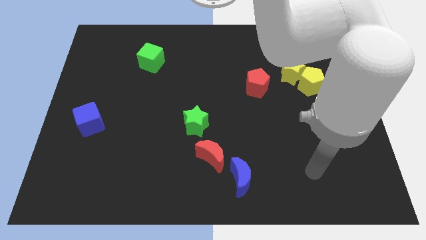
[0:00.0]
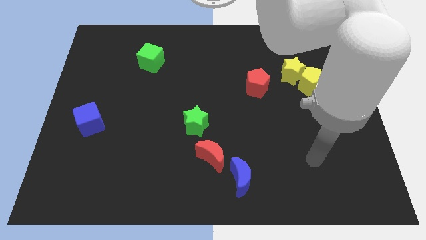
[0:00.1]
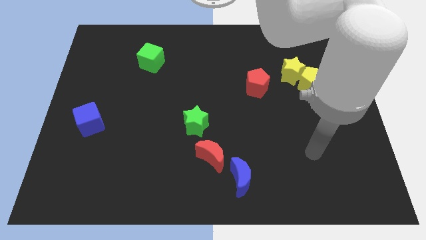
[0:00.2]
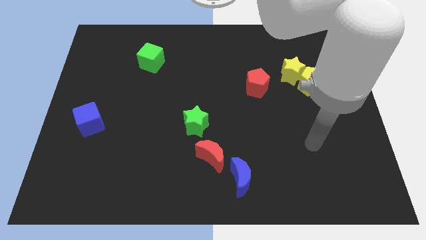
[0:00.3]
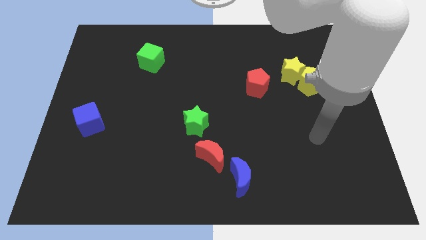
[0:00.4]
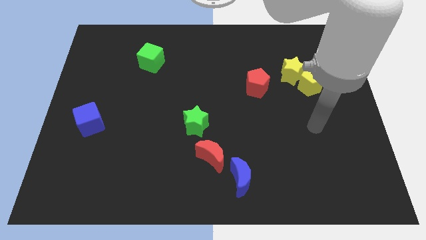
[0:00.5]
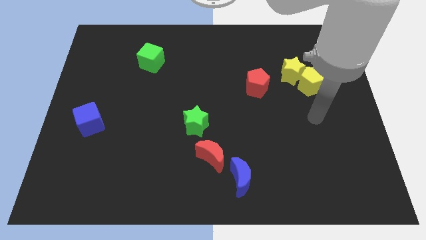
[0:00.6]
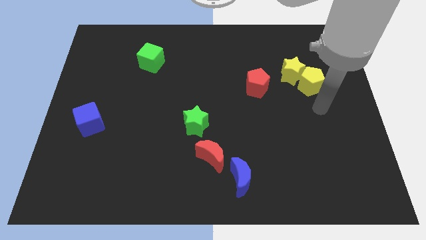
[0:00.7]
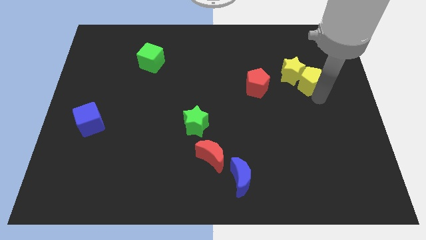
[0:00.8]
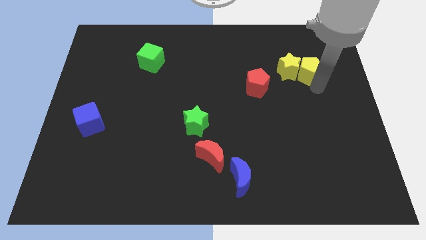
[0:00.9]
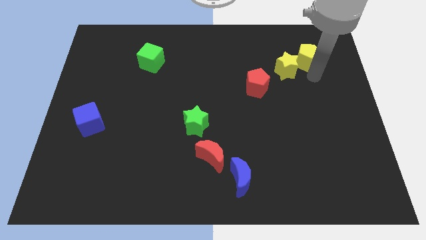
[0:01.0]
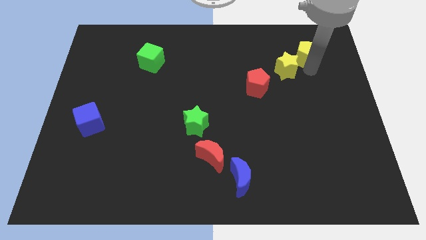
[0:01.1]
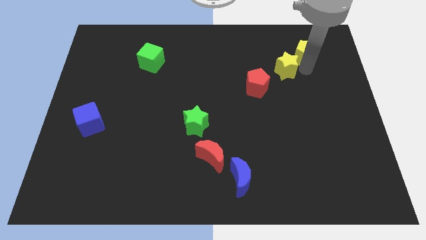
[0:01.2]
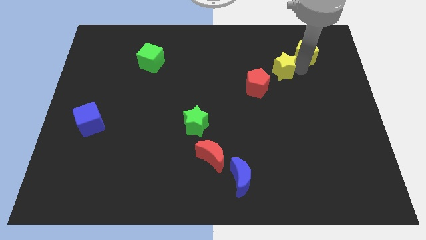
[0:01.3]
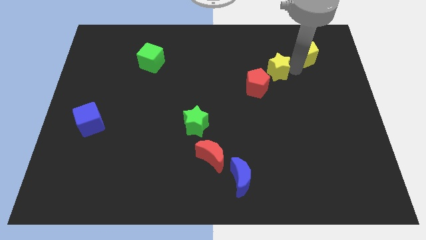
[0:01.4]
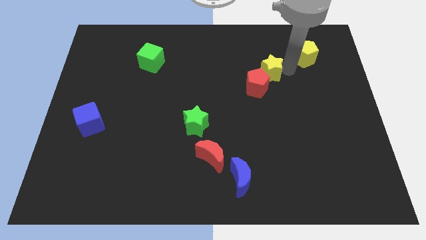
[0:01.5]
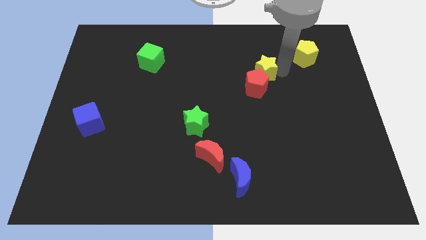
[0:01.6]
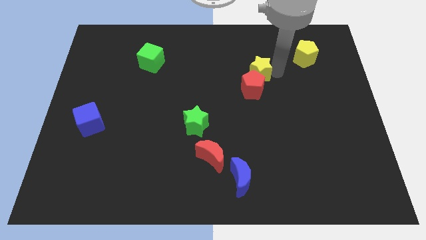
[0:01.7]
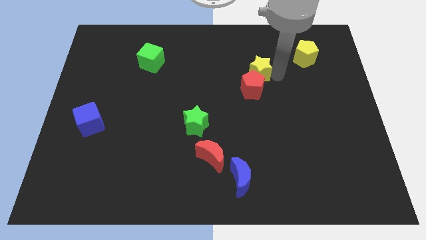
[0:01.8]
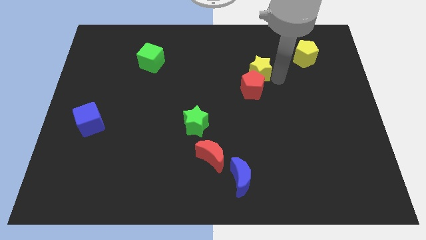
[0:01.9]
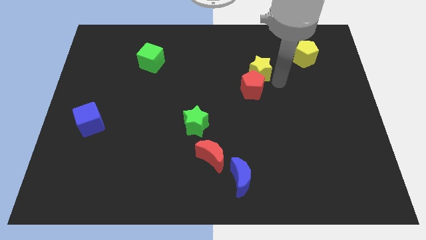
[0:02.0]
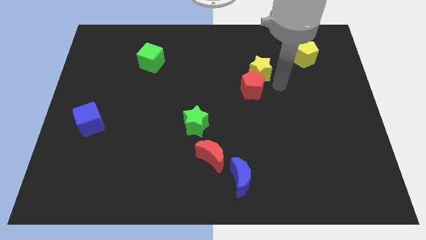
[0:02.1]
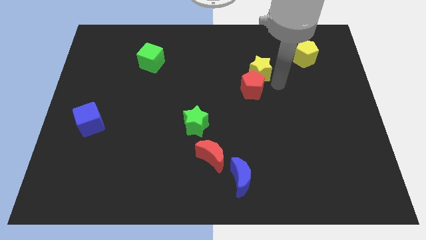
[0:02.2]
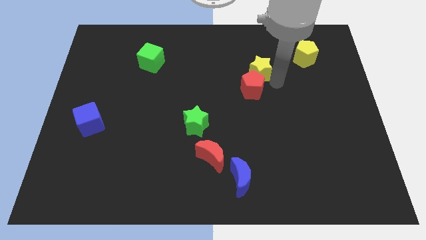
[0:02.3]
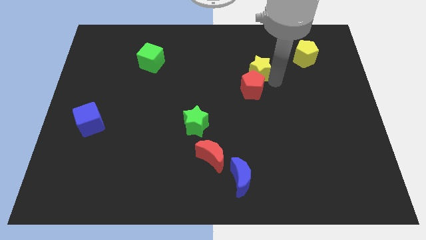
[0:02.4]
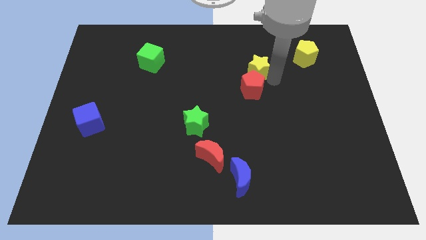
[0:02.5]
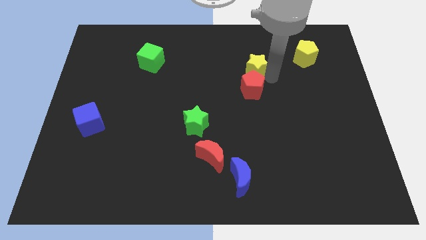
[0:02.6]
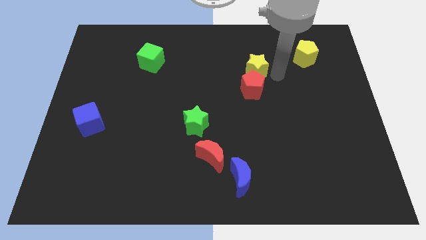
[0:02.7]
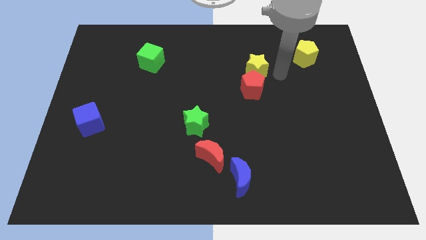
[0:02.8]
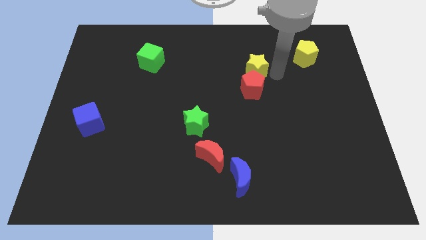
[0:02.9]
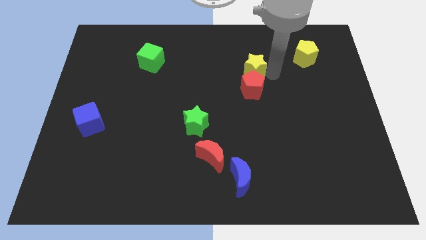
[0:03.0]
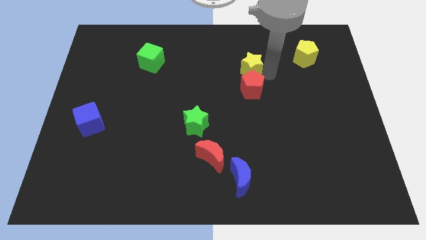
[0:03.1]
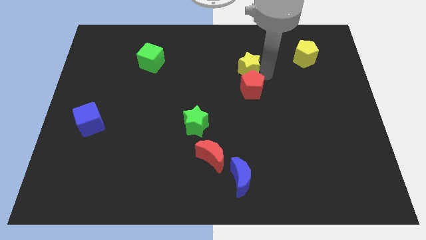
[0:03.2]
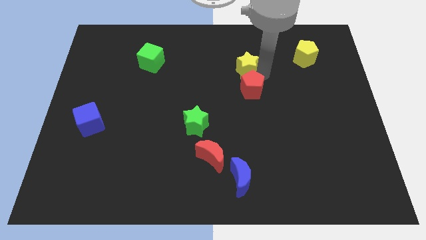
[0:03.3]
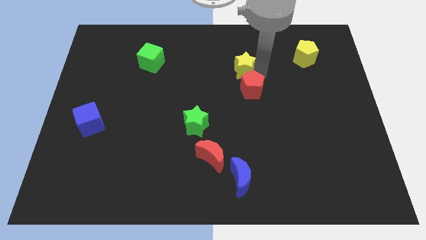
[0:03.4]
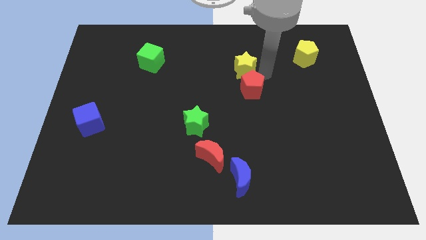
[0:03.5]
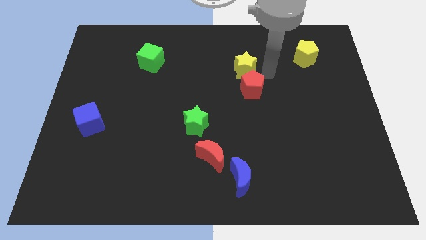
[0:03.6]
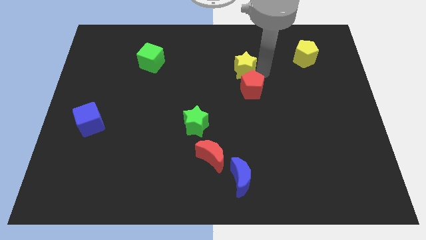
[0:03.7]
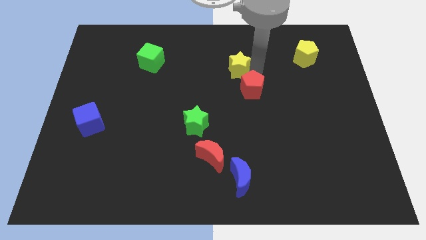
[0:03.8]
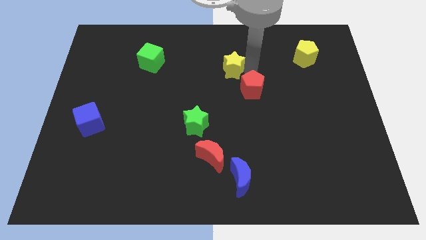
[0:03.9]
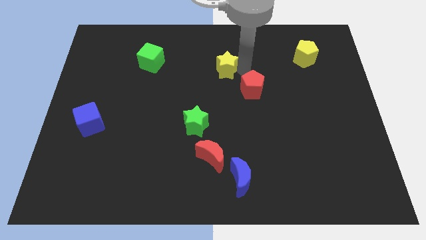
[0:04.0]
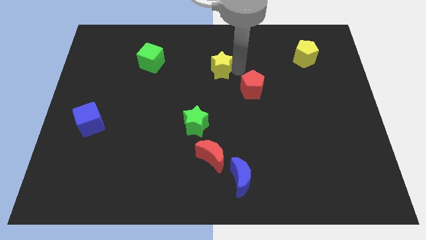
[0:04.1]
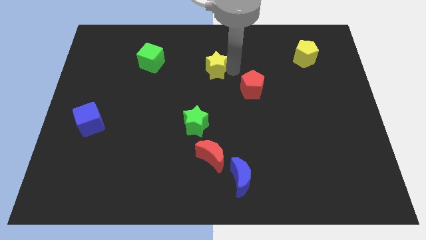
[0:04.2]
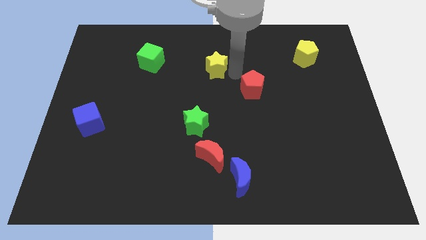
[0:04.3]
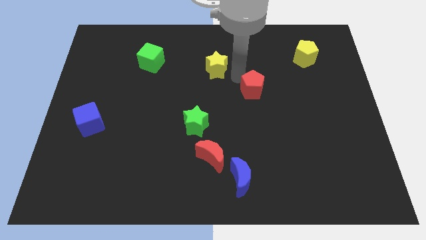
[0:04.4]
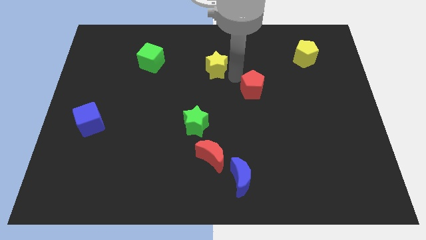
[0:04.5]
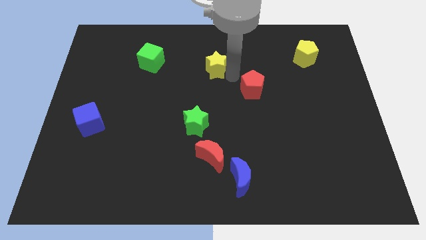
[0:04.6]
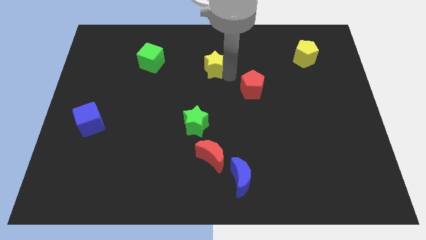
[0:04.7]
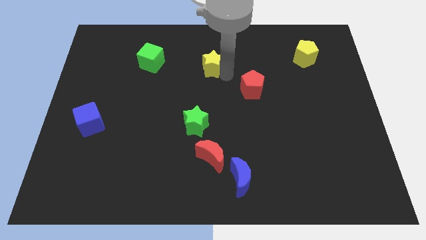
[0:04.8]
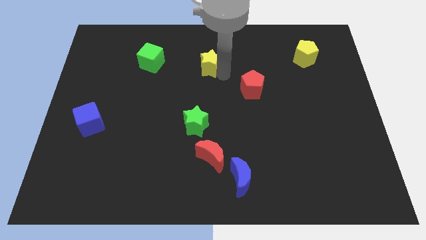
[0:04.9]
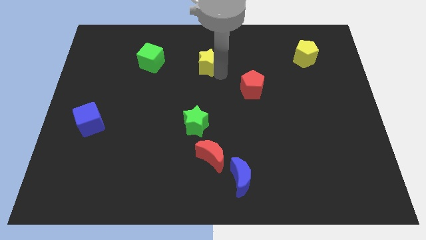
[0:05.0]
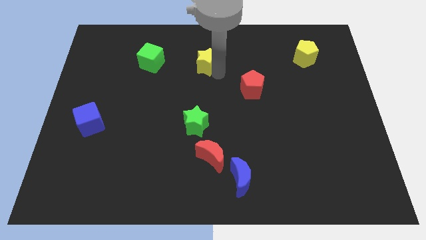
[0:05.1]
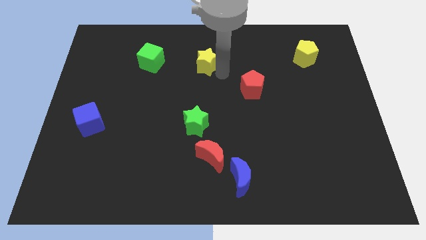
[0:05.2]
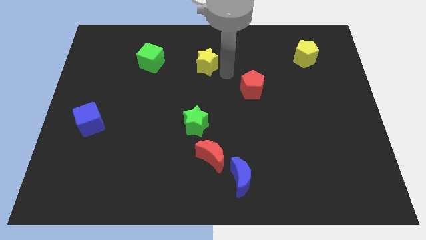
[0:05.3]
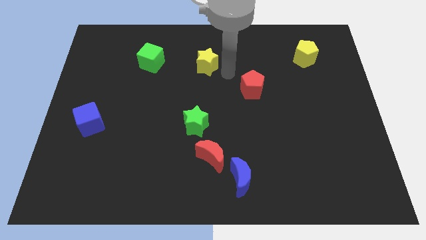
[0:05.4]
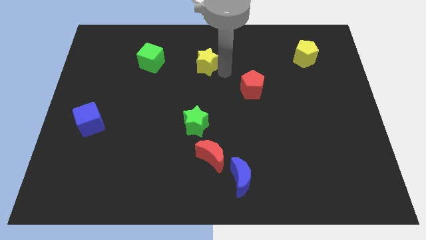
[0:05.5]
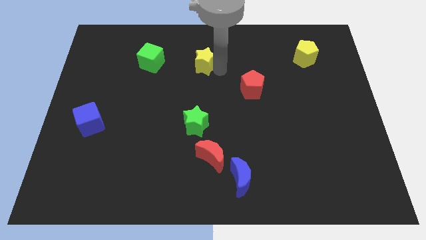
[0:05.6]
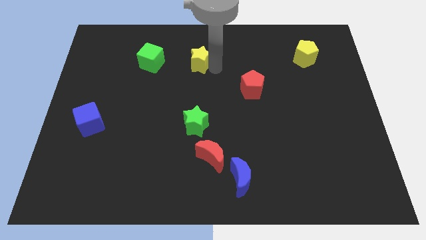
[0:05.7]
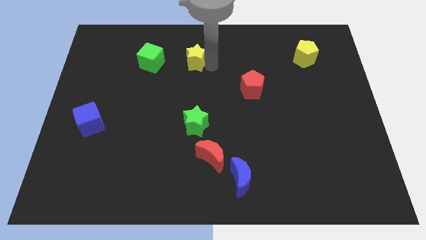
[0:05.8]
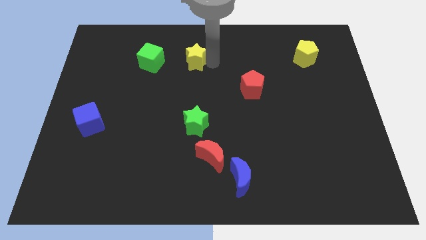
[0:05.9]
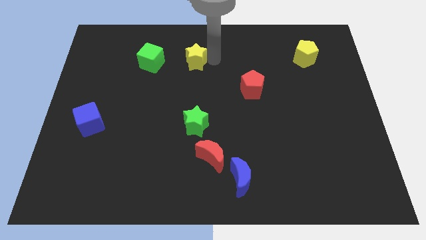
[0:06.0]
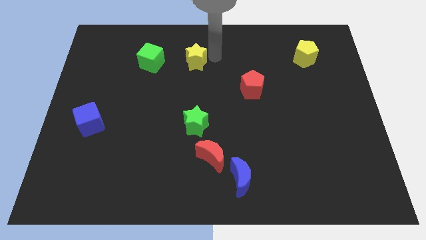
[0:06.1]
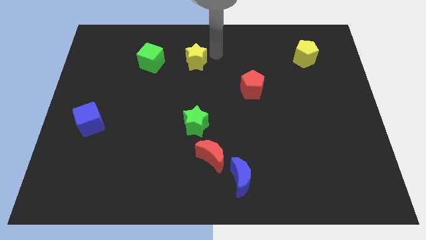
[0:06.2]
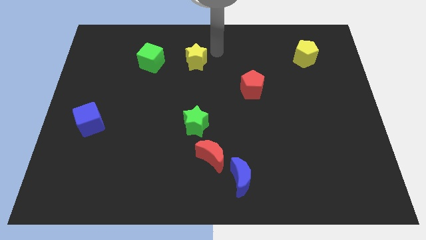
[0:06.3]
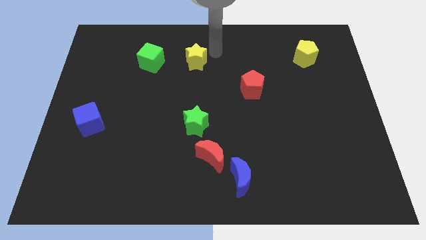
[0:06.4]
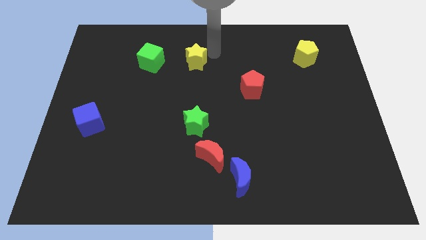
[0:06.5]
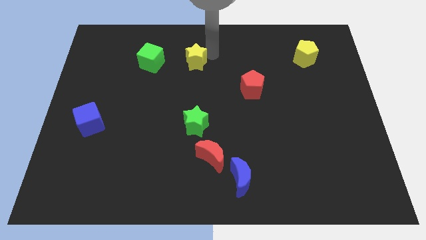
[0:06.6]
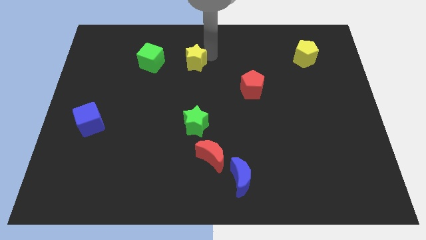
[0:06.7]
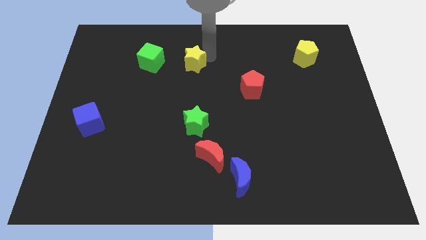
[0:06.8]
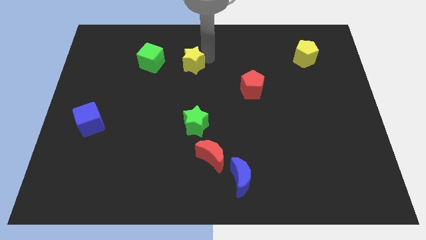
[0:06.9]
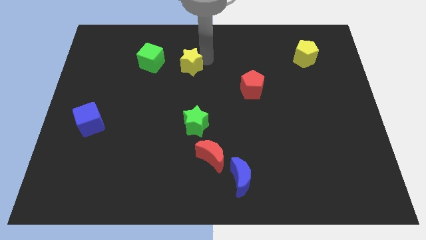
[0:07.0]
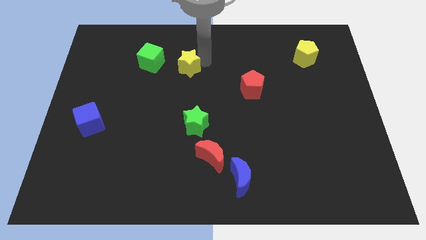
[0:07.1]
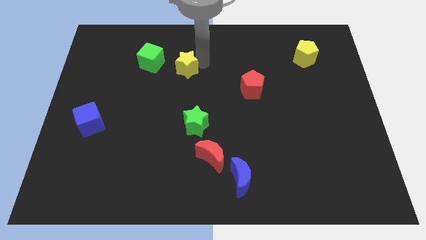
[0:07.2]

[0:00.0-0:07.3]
slide the yellow star diagonally down and to the right of the green cube
